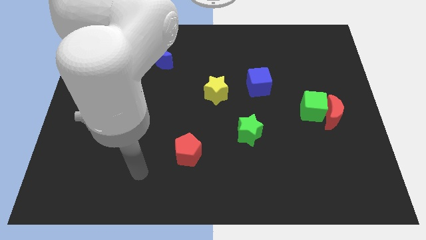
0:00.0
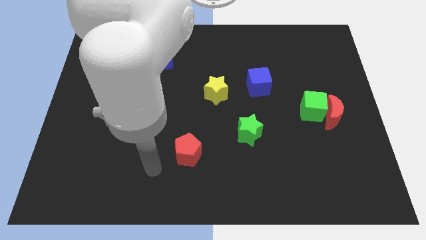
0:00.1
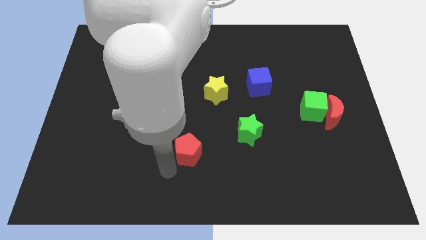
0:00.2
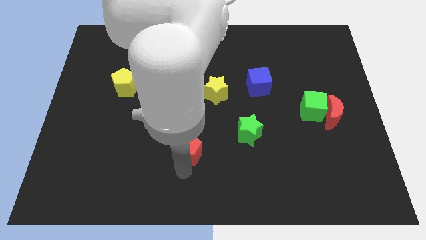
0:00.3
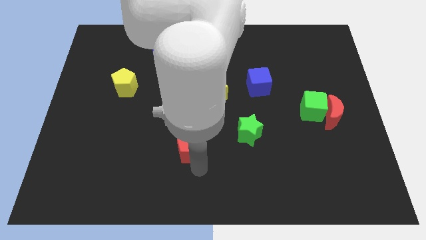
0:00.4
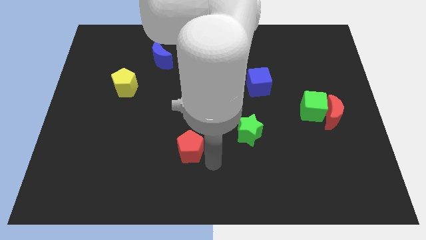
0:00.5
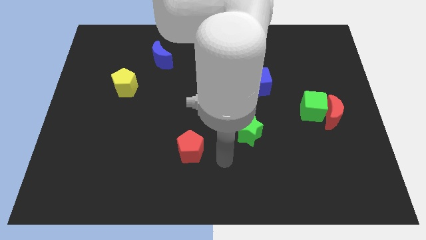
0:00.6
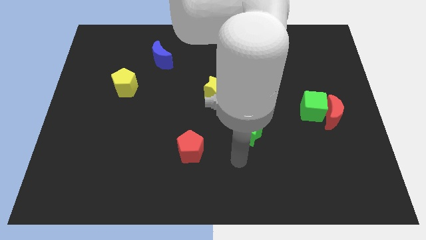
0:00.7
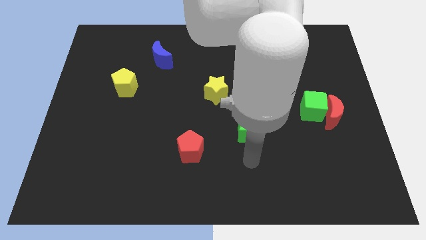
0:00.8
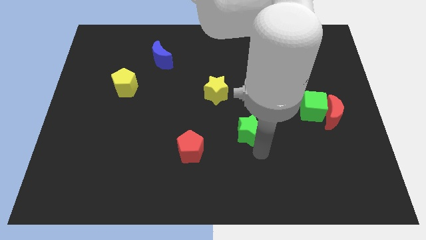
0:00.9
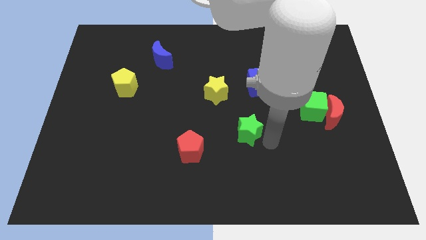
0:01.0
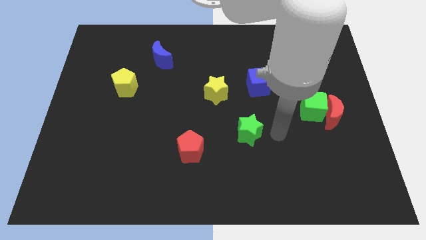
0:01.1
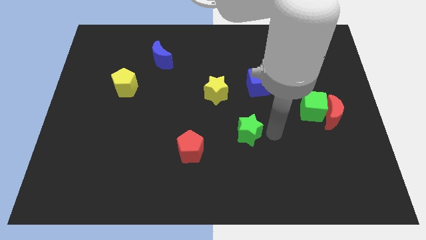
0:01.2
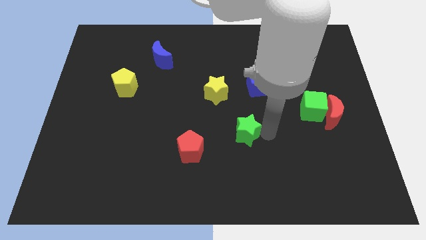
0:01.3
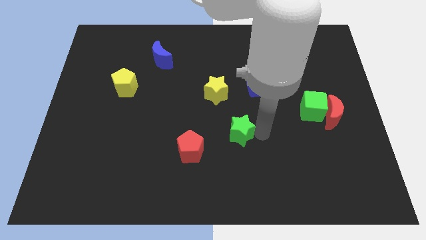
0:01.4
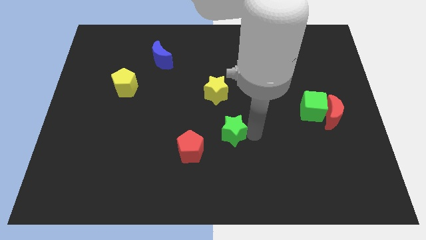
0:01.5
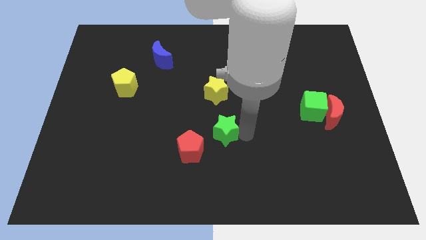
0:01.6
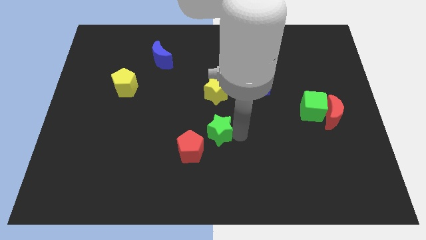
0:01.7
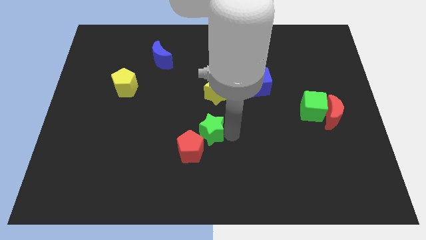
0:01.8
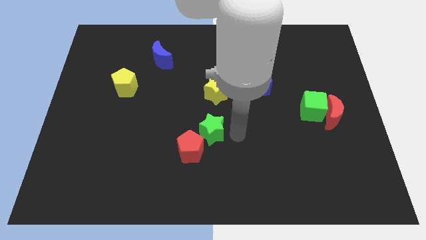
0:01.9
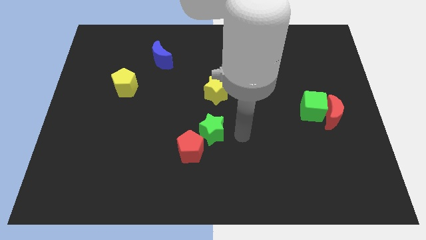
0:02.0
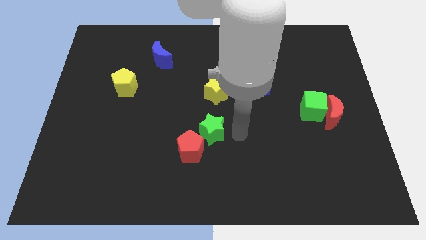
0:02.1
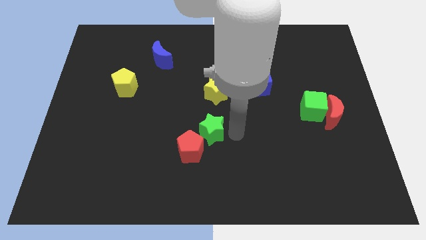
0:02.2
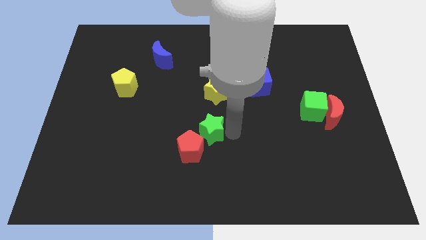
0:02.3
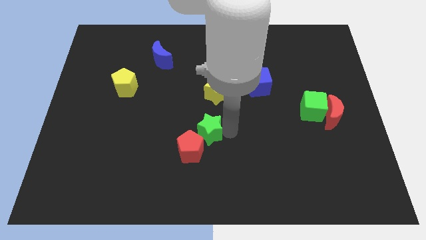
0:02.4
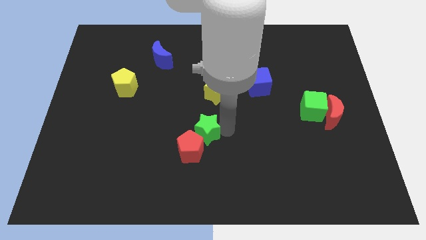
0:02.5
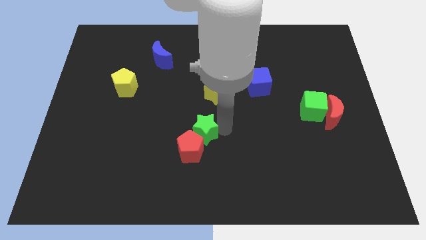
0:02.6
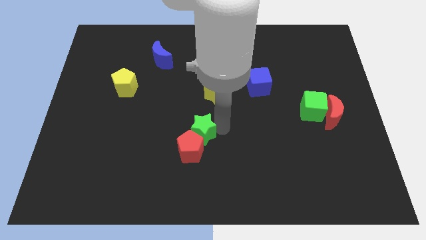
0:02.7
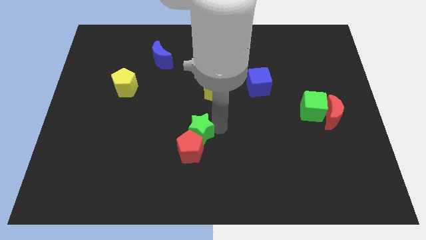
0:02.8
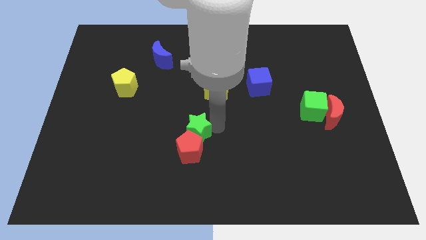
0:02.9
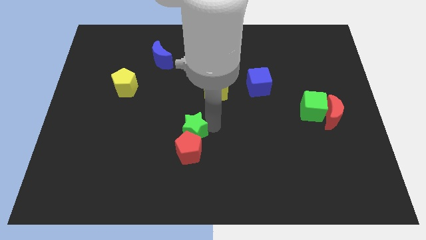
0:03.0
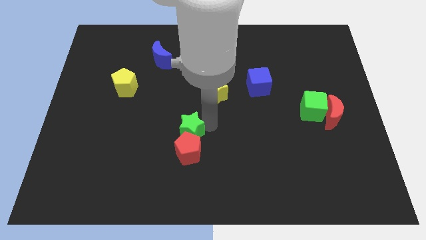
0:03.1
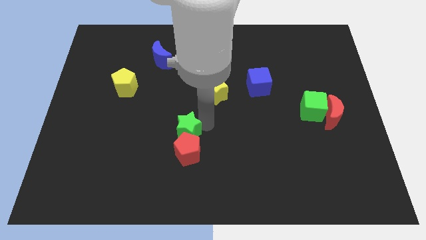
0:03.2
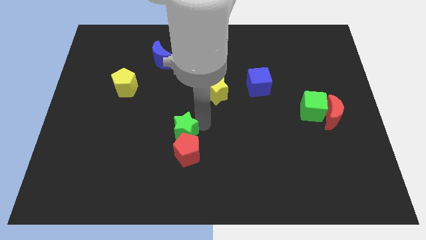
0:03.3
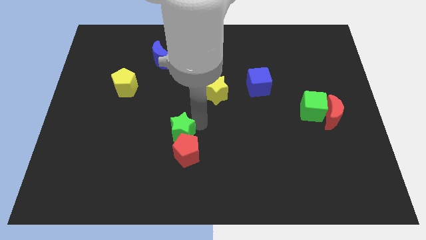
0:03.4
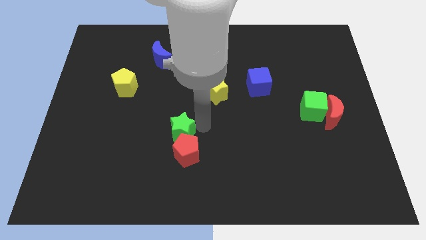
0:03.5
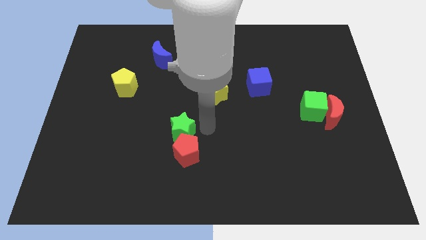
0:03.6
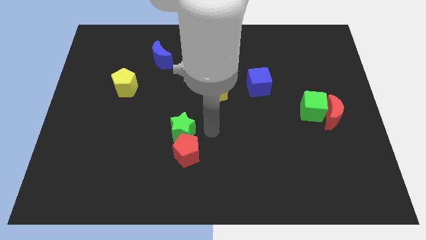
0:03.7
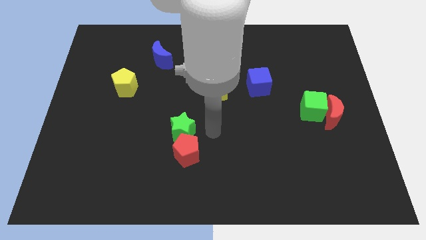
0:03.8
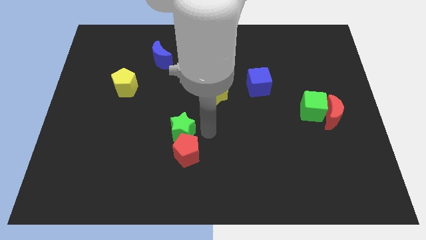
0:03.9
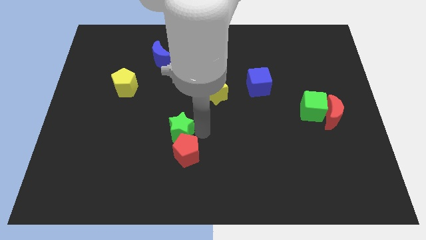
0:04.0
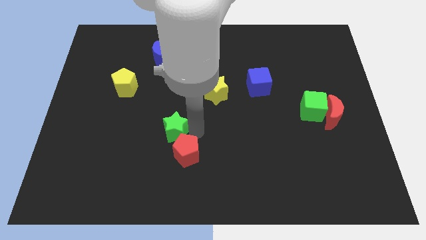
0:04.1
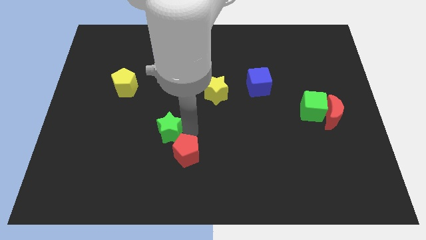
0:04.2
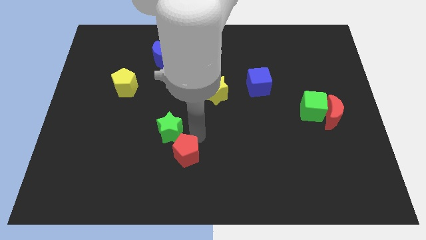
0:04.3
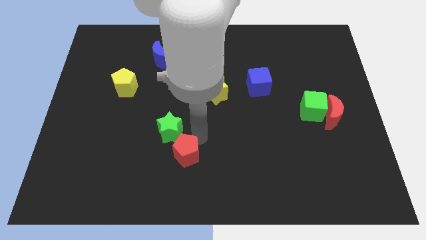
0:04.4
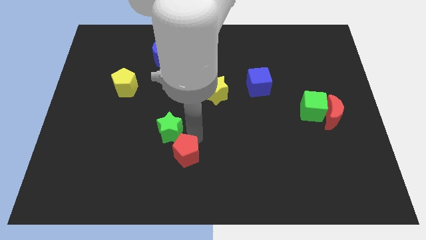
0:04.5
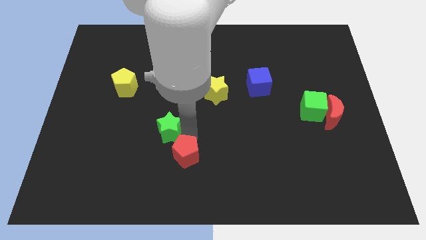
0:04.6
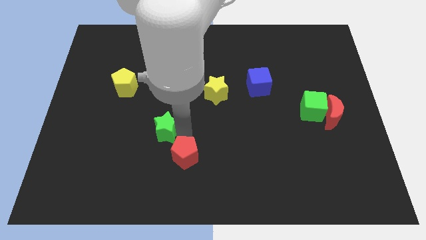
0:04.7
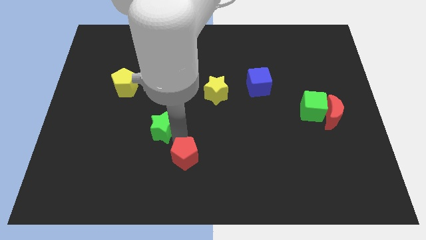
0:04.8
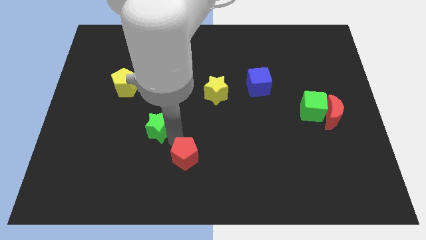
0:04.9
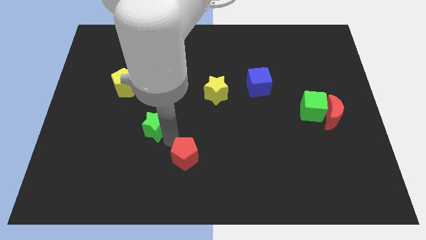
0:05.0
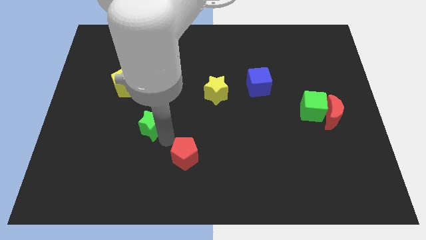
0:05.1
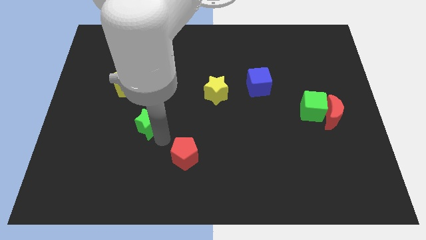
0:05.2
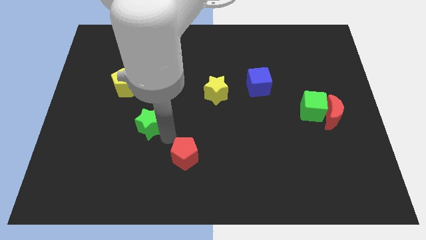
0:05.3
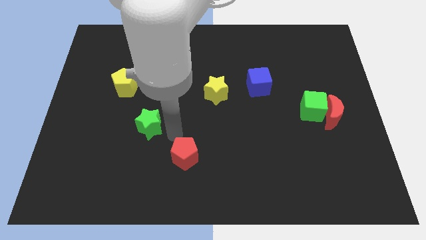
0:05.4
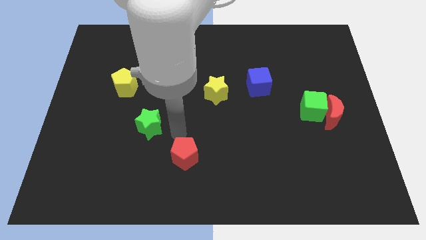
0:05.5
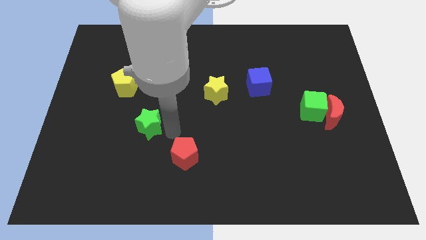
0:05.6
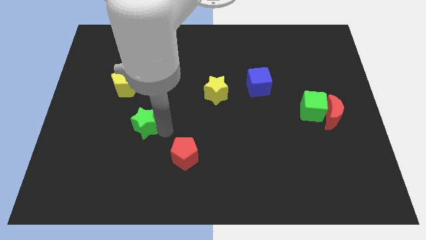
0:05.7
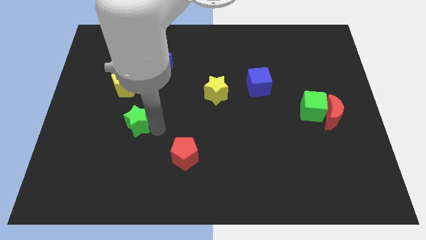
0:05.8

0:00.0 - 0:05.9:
slide the green star below the yellow pentagon
